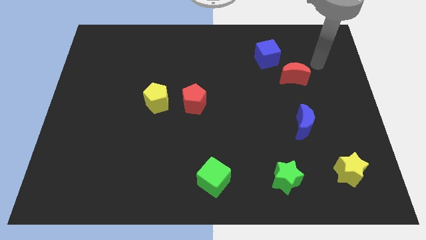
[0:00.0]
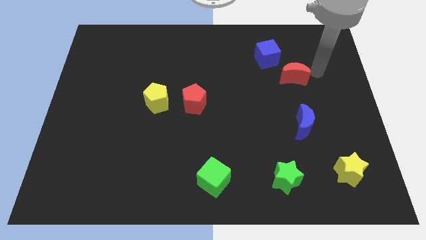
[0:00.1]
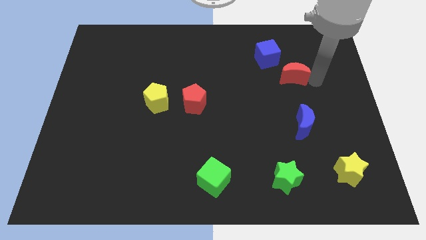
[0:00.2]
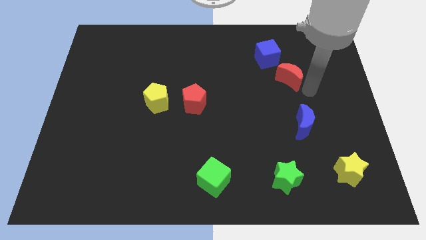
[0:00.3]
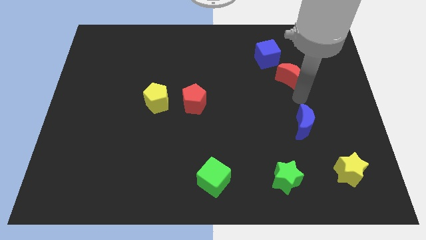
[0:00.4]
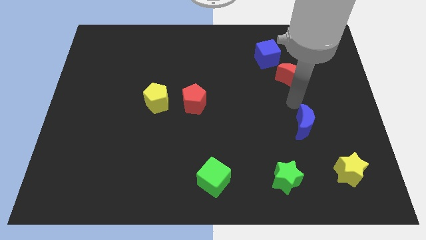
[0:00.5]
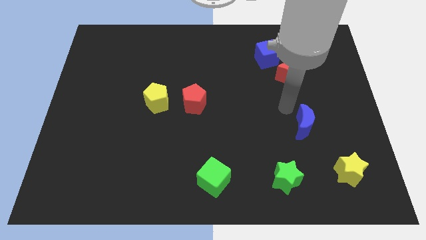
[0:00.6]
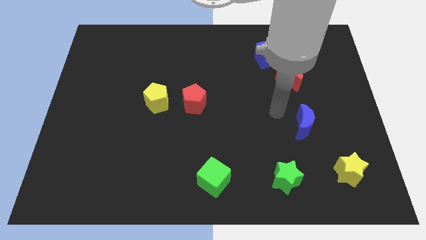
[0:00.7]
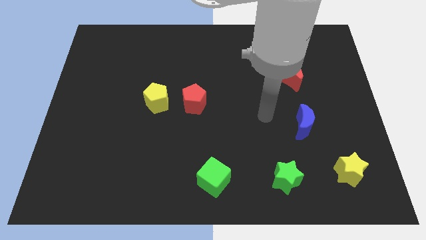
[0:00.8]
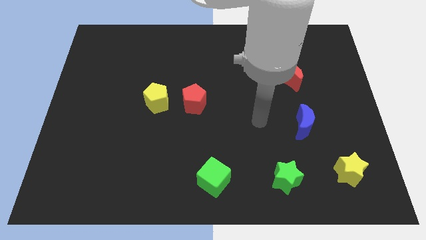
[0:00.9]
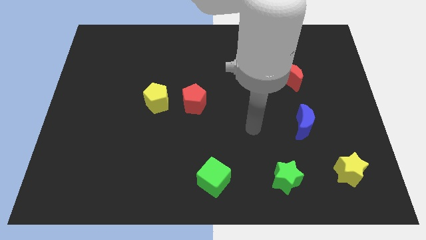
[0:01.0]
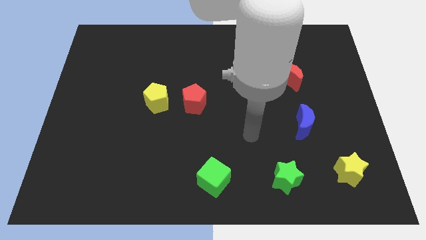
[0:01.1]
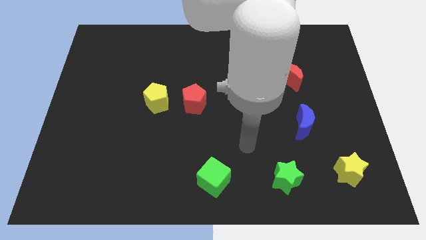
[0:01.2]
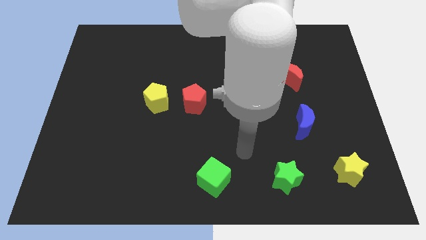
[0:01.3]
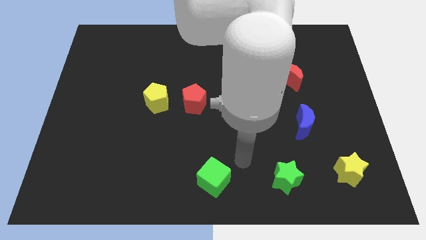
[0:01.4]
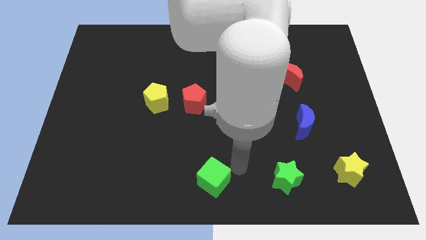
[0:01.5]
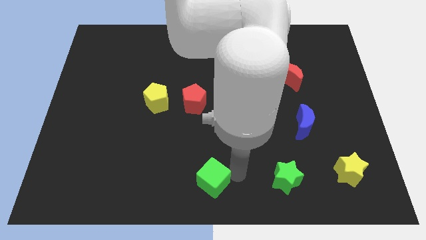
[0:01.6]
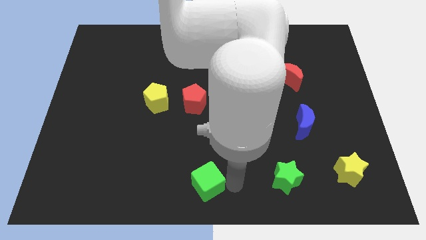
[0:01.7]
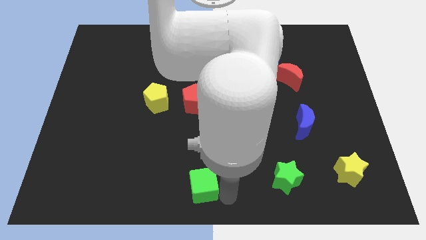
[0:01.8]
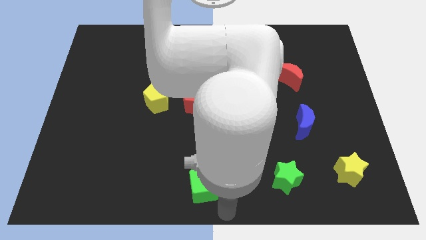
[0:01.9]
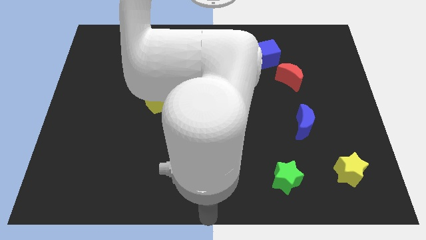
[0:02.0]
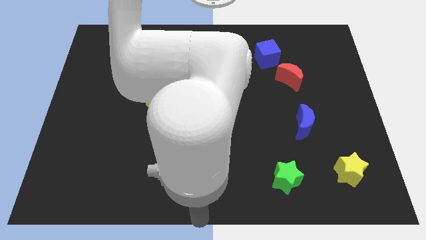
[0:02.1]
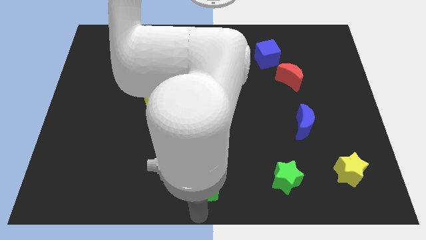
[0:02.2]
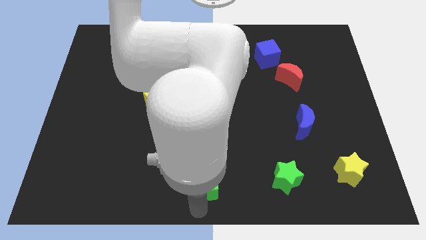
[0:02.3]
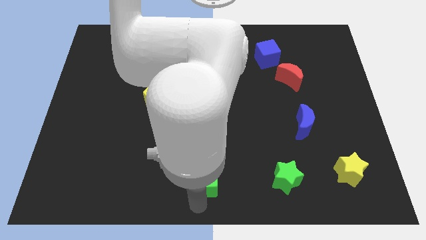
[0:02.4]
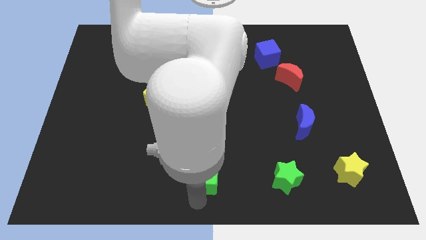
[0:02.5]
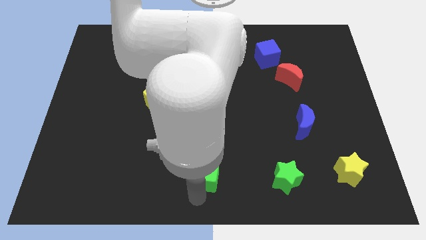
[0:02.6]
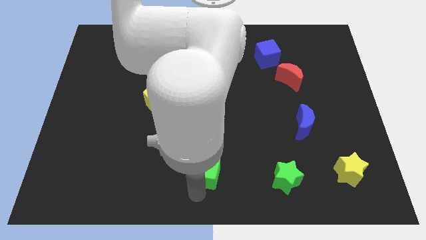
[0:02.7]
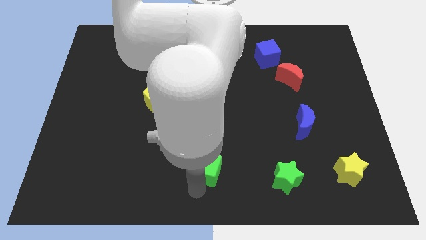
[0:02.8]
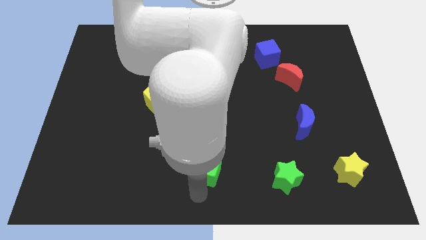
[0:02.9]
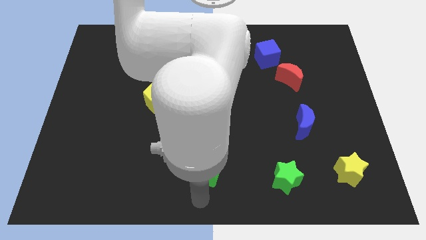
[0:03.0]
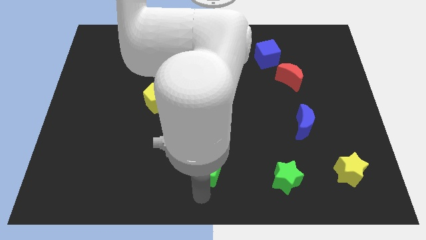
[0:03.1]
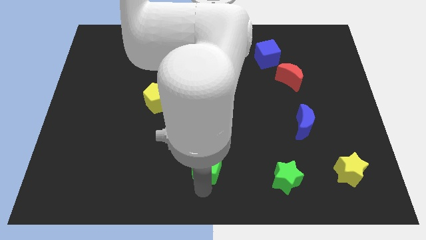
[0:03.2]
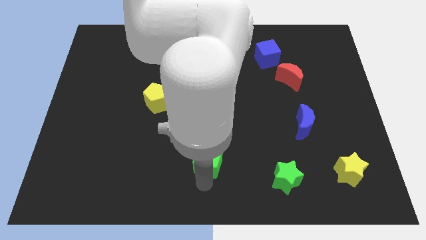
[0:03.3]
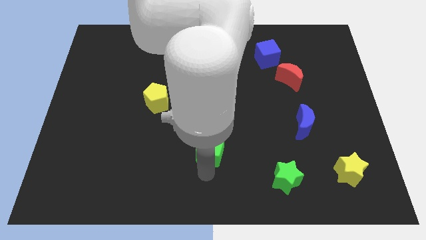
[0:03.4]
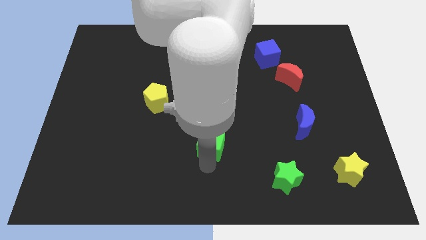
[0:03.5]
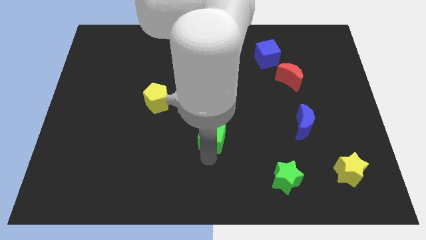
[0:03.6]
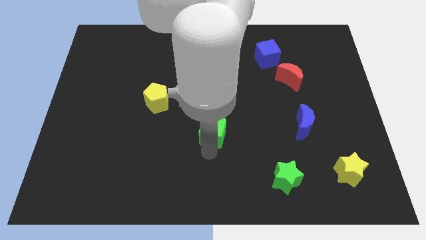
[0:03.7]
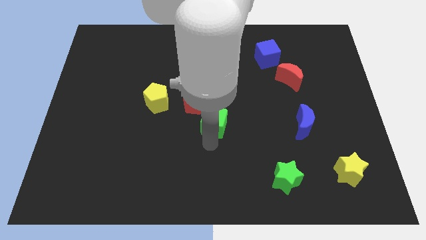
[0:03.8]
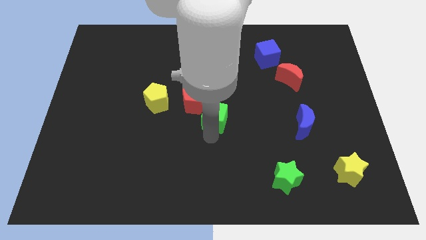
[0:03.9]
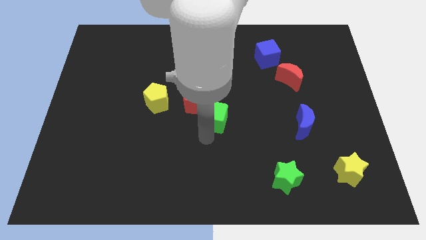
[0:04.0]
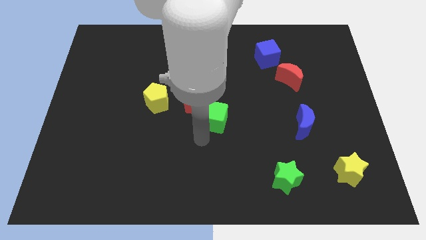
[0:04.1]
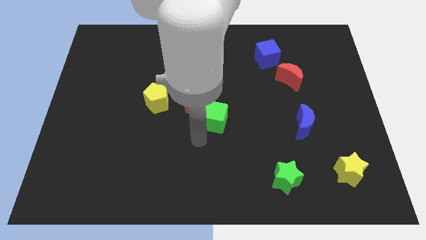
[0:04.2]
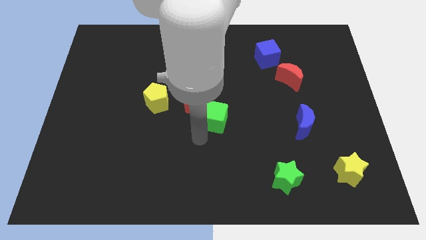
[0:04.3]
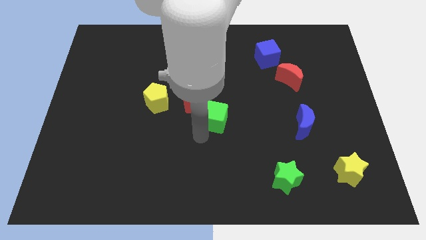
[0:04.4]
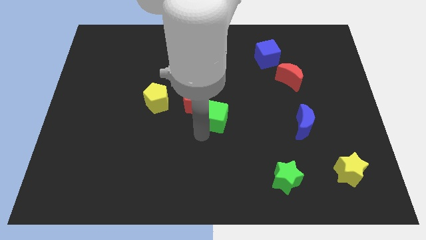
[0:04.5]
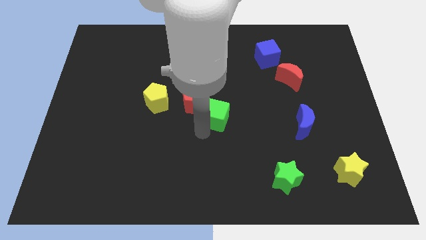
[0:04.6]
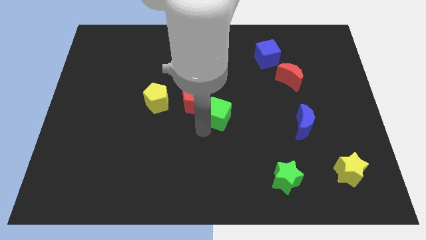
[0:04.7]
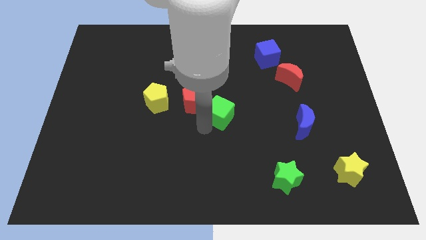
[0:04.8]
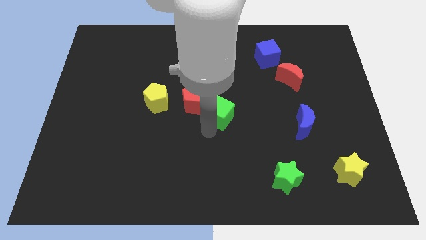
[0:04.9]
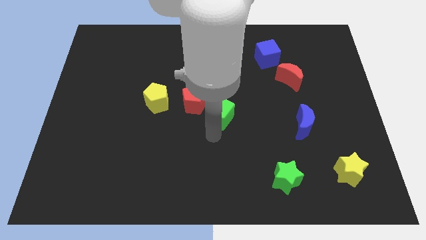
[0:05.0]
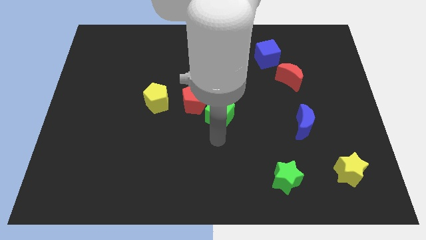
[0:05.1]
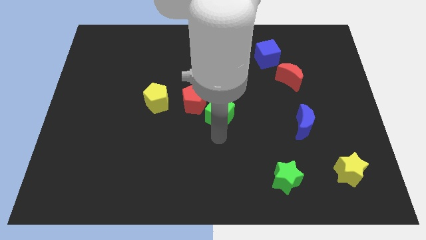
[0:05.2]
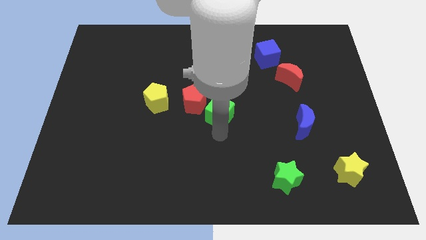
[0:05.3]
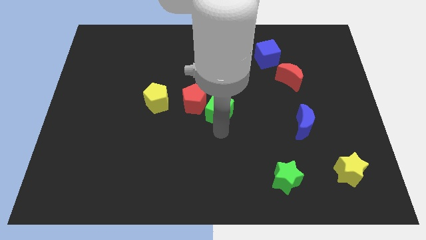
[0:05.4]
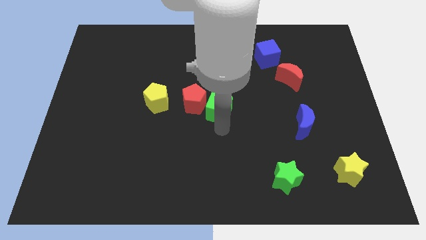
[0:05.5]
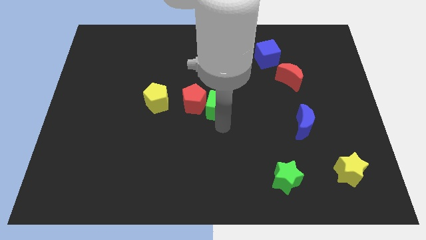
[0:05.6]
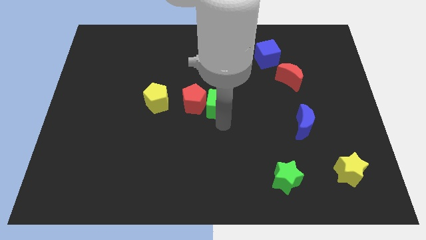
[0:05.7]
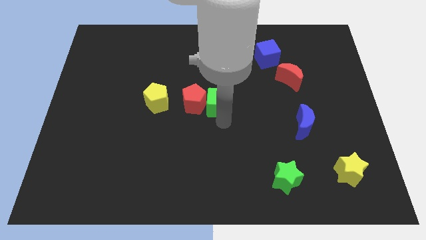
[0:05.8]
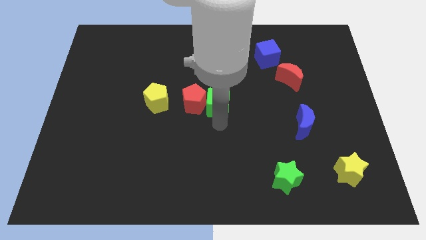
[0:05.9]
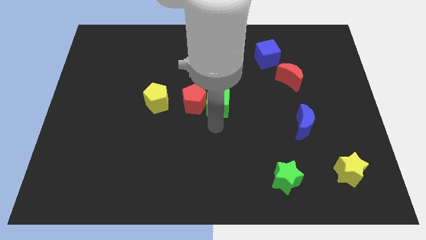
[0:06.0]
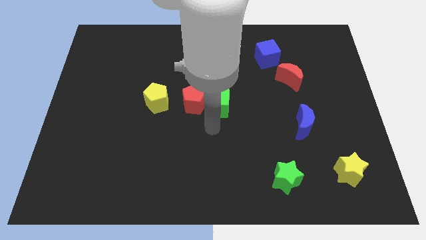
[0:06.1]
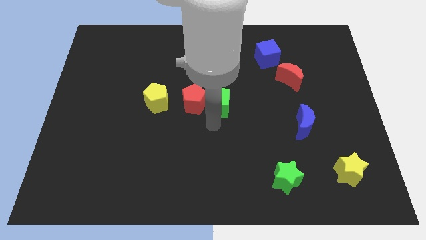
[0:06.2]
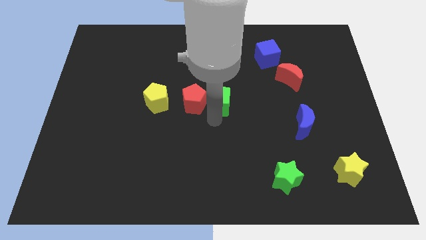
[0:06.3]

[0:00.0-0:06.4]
push the green cube upwards

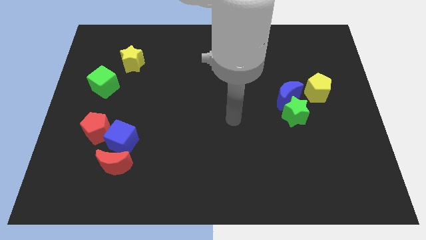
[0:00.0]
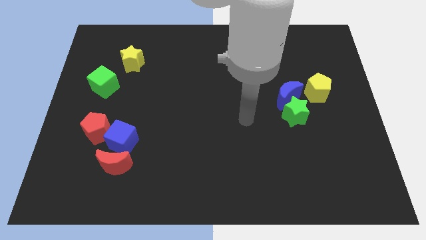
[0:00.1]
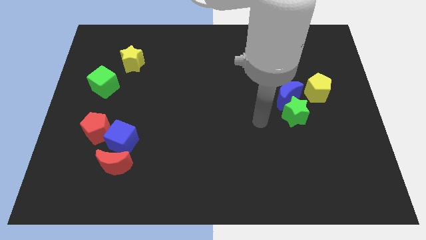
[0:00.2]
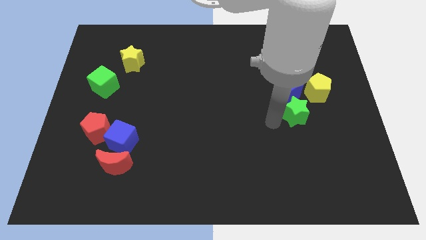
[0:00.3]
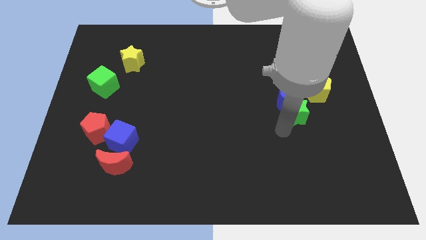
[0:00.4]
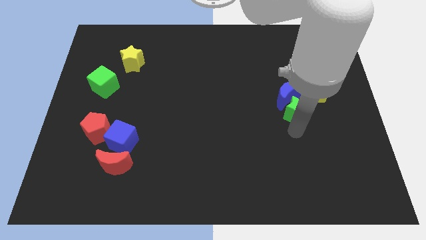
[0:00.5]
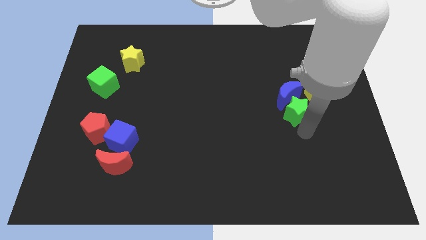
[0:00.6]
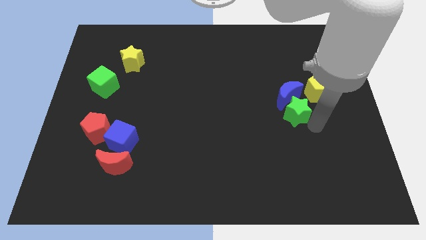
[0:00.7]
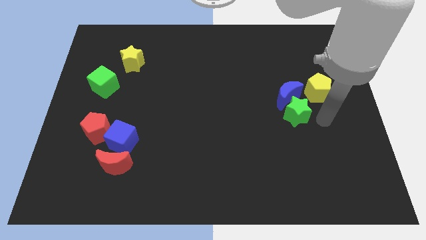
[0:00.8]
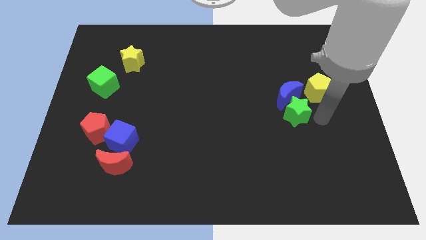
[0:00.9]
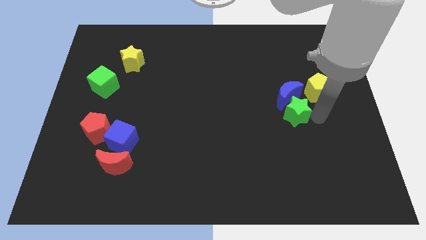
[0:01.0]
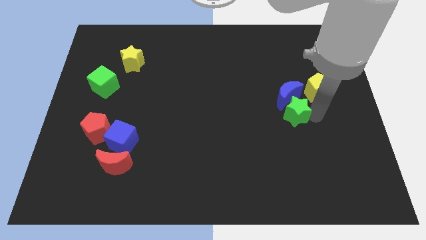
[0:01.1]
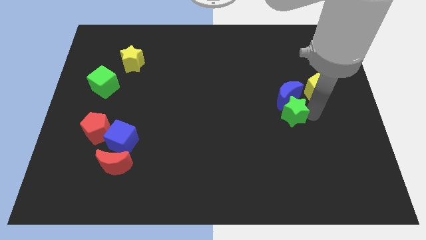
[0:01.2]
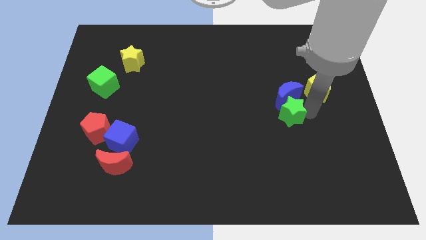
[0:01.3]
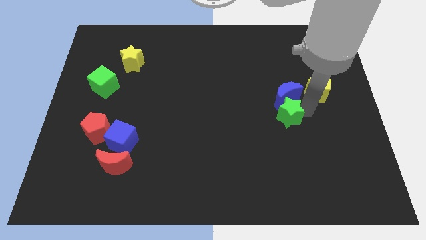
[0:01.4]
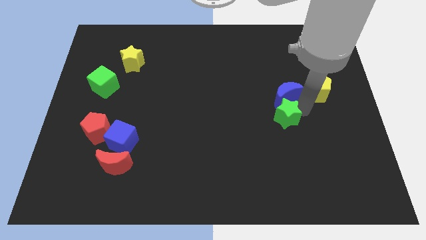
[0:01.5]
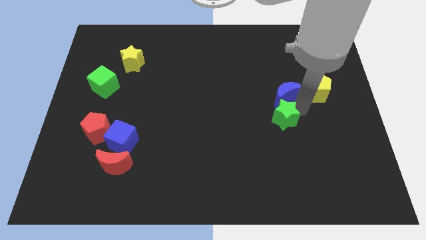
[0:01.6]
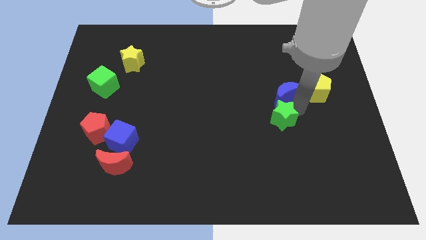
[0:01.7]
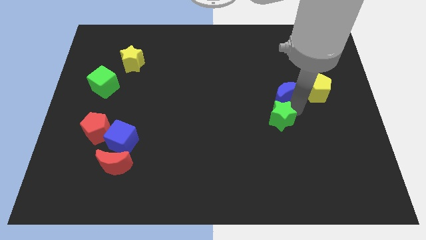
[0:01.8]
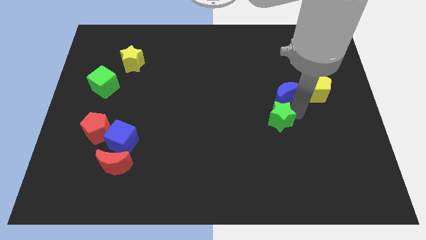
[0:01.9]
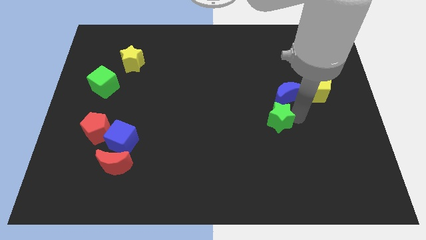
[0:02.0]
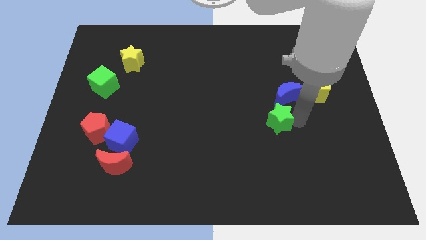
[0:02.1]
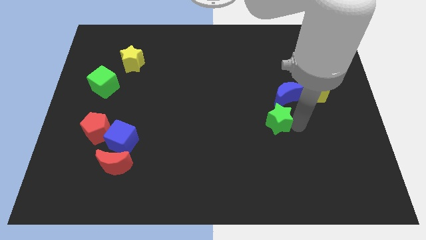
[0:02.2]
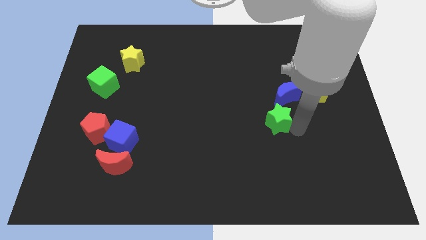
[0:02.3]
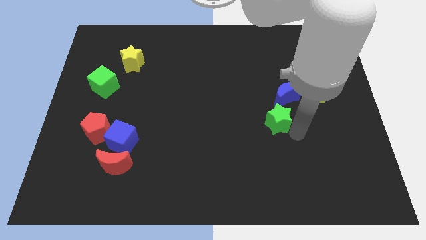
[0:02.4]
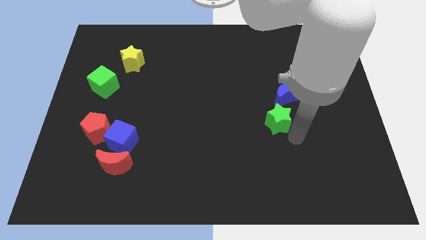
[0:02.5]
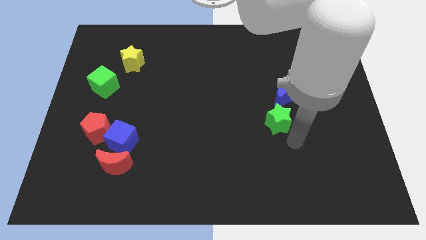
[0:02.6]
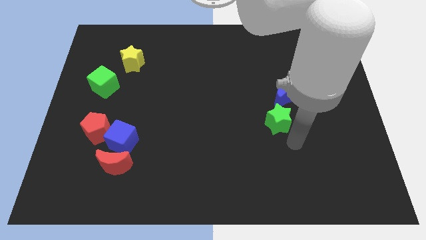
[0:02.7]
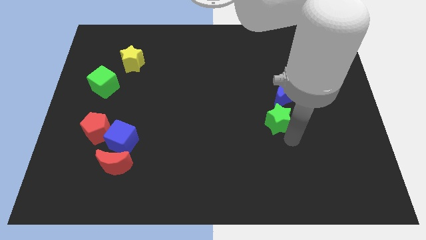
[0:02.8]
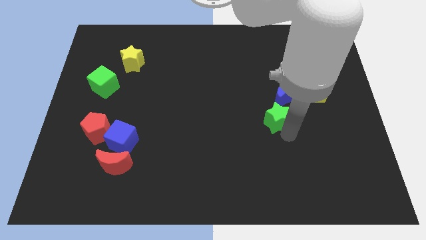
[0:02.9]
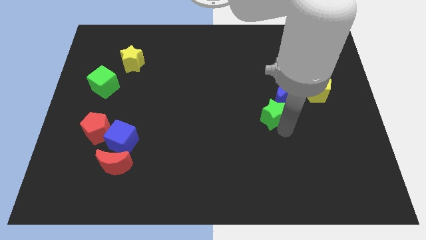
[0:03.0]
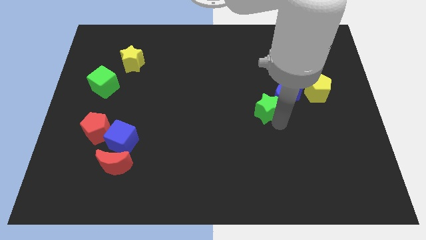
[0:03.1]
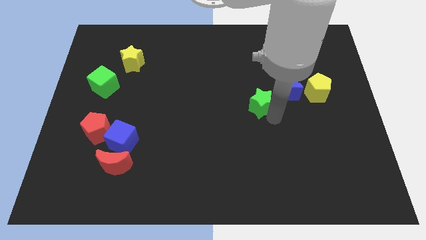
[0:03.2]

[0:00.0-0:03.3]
move the green star up and to the left a little
